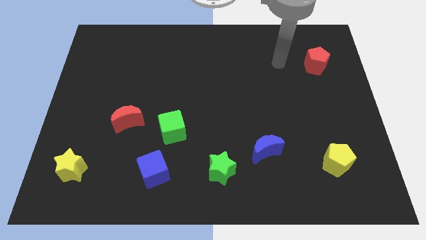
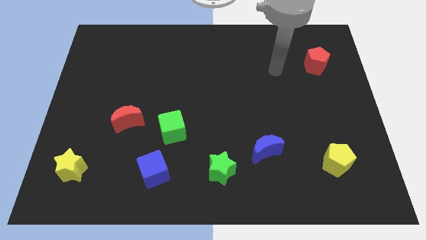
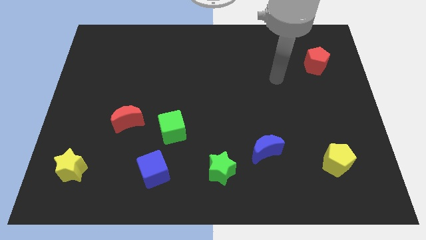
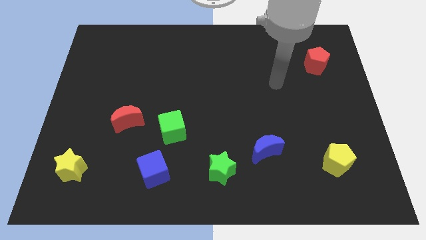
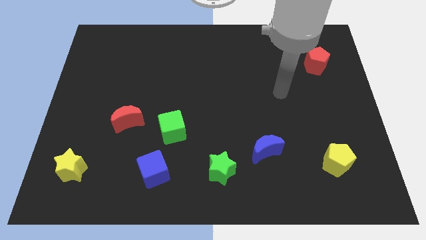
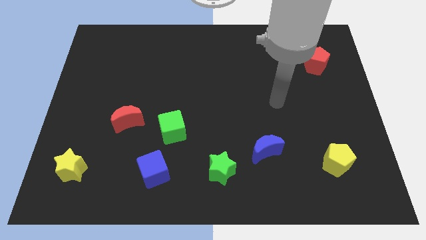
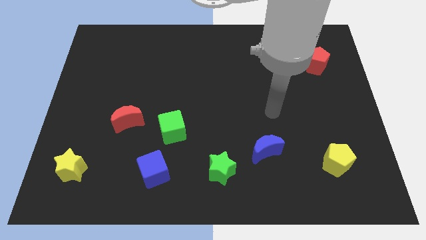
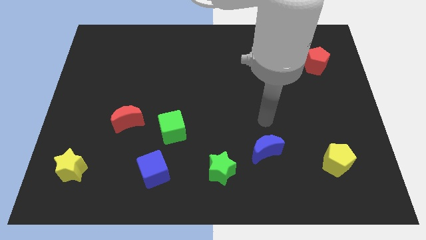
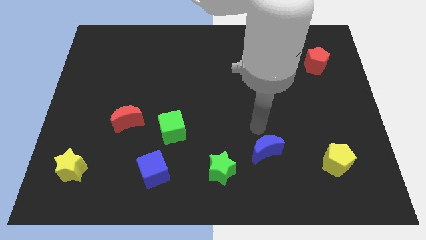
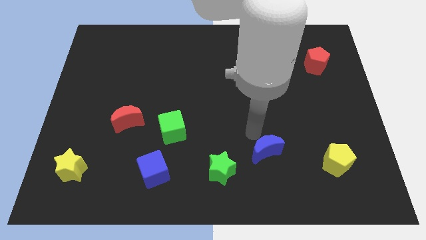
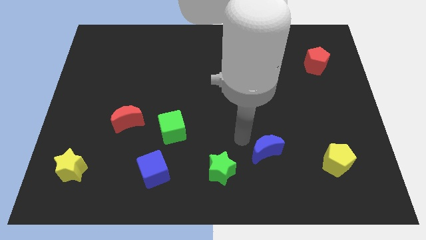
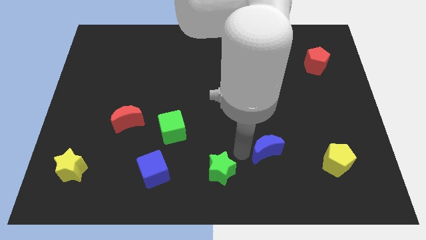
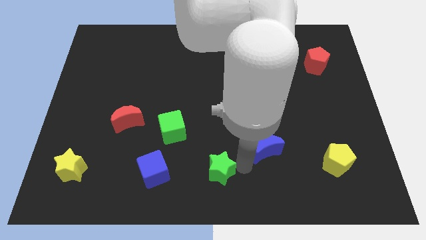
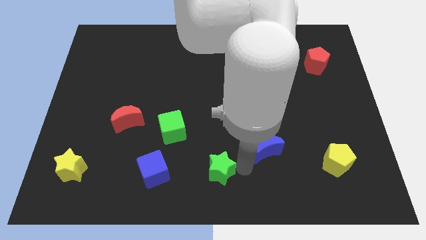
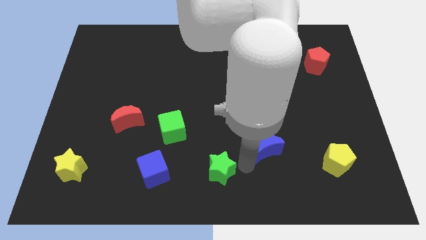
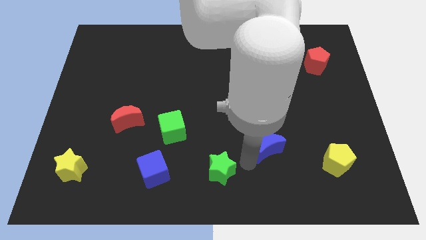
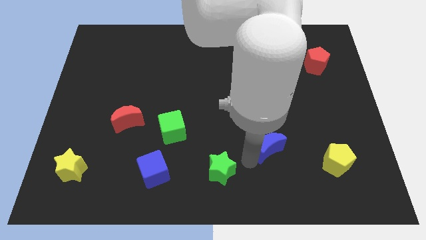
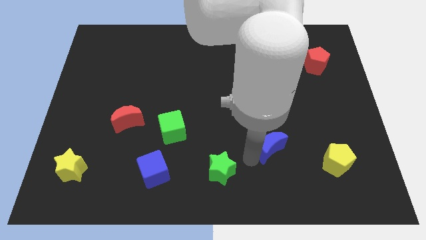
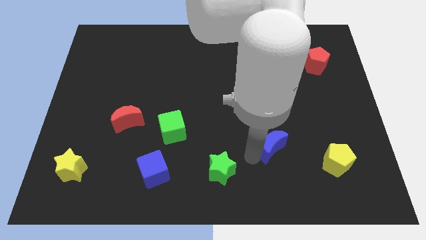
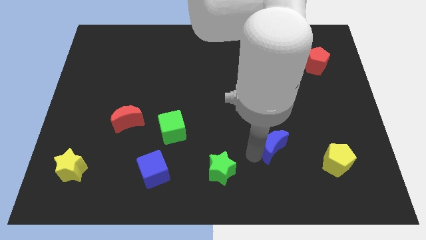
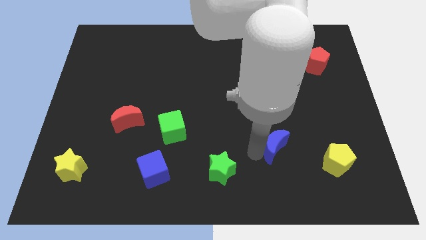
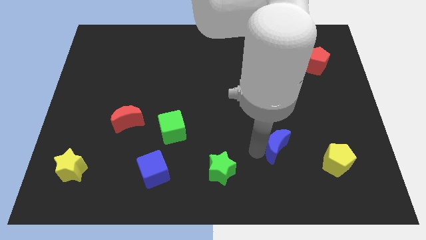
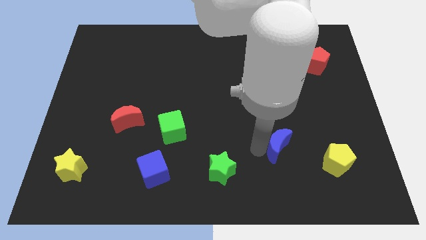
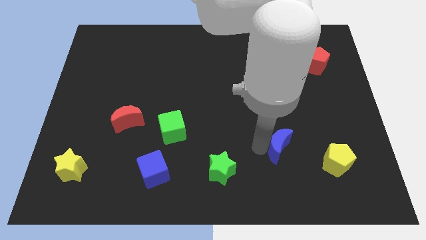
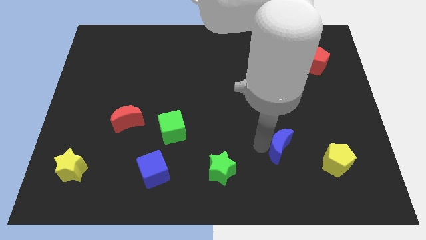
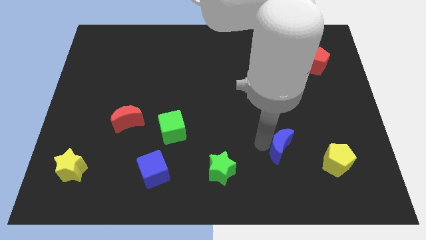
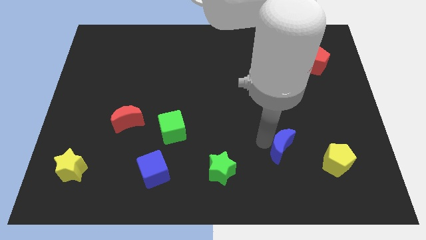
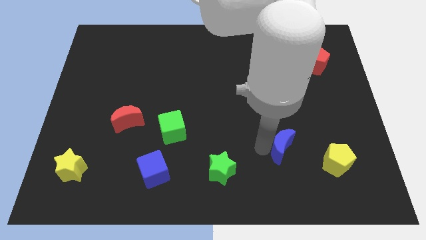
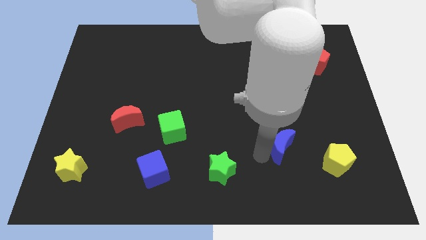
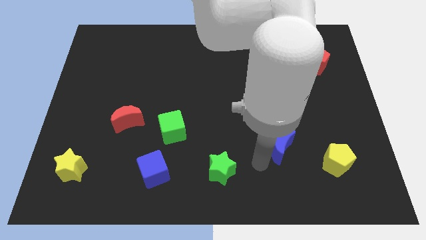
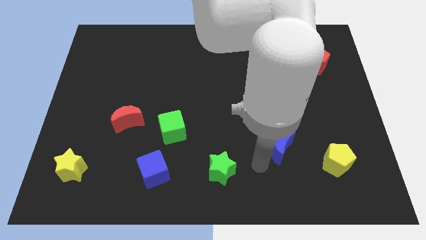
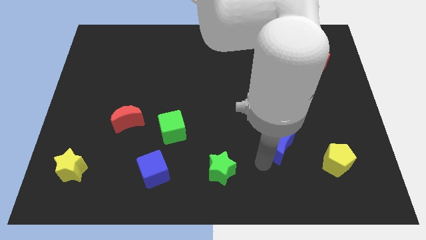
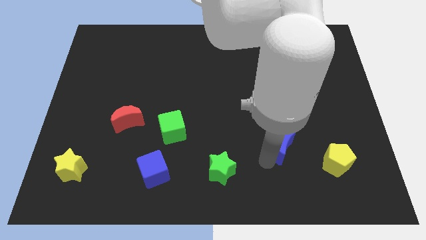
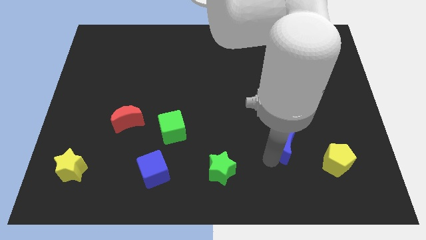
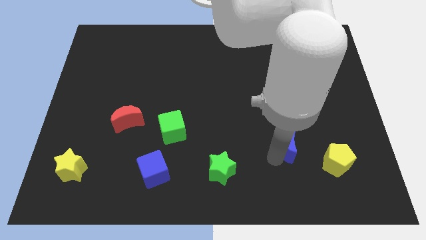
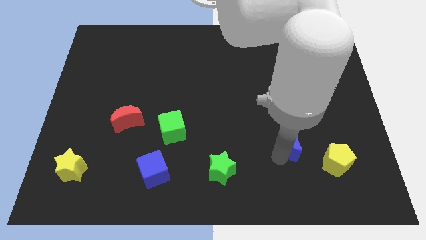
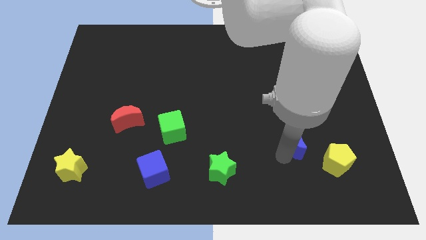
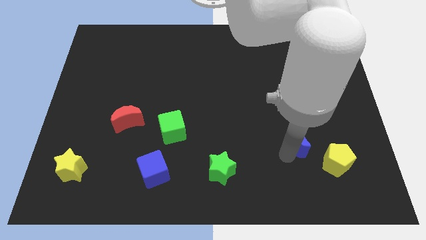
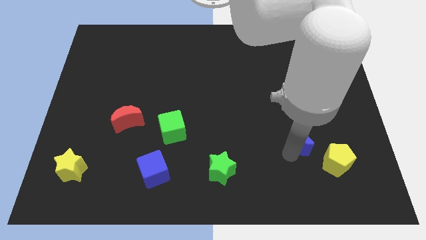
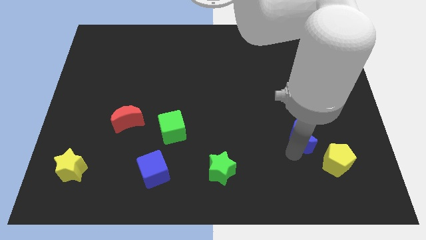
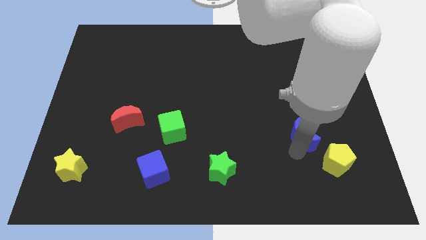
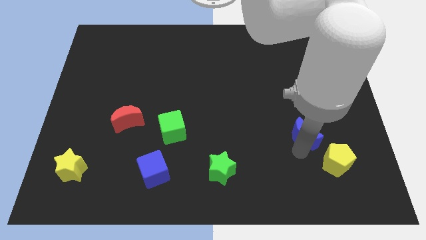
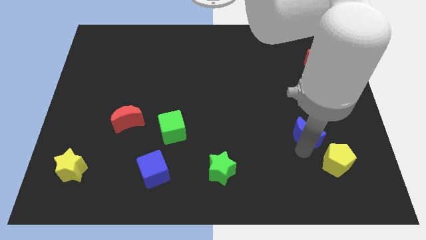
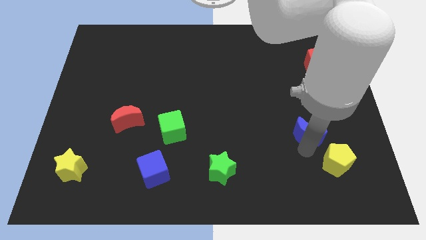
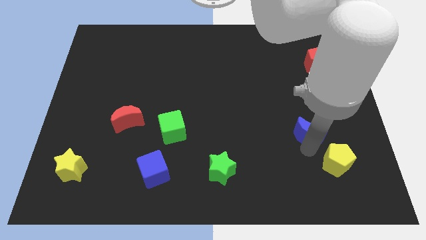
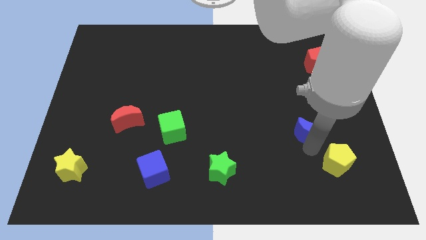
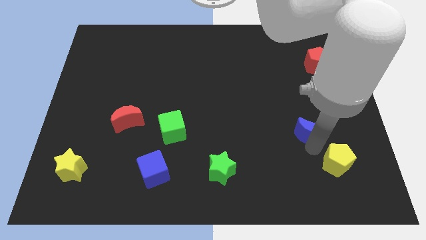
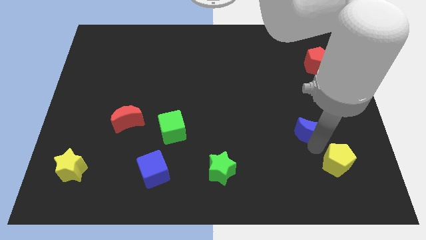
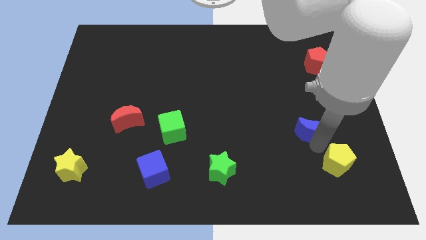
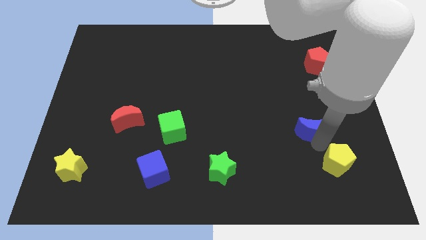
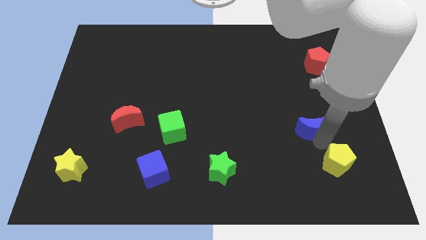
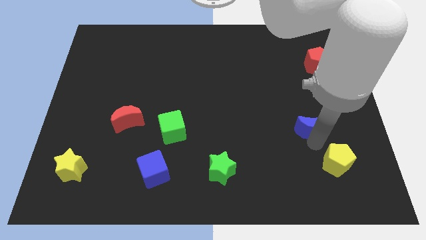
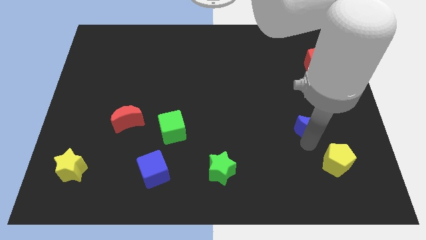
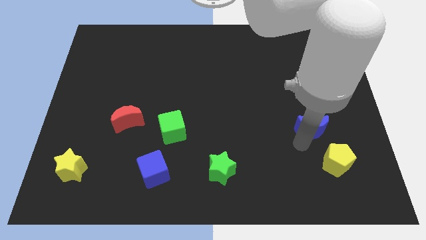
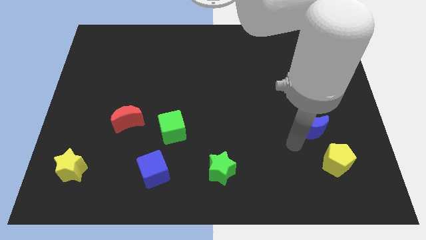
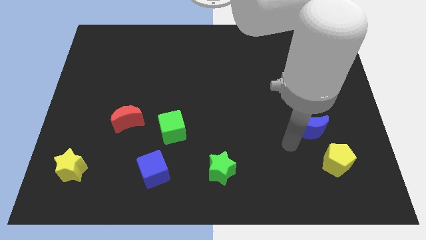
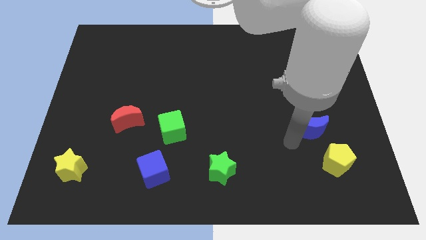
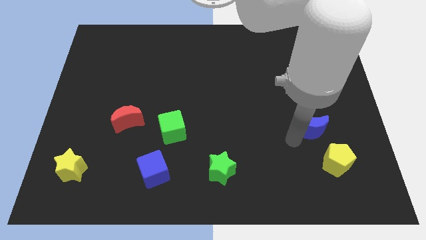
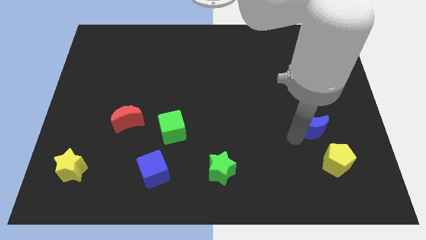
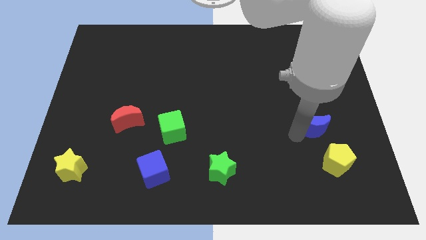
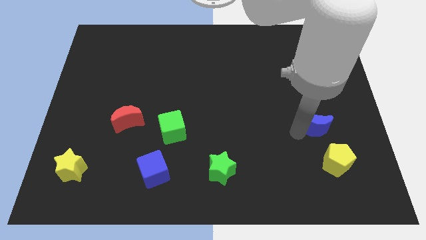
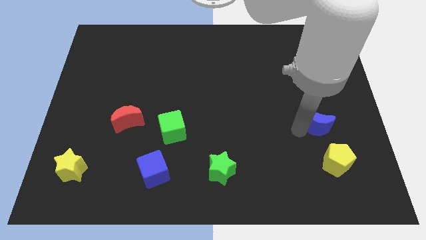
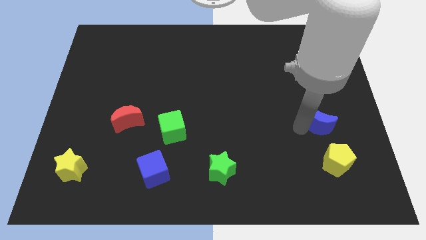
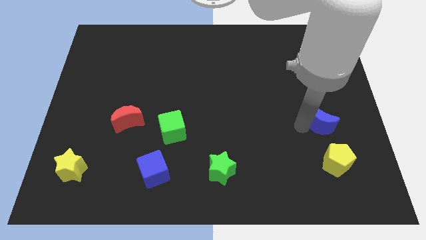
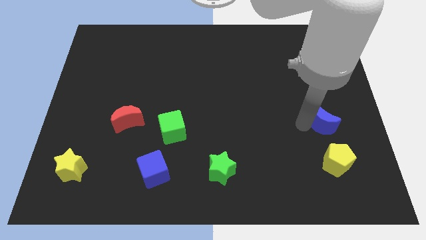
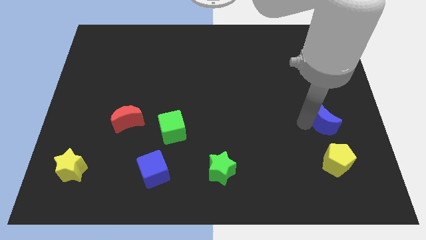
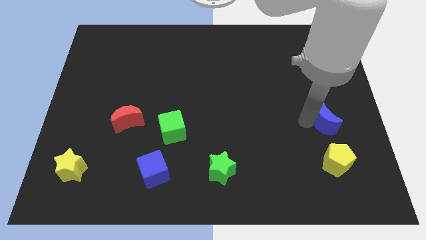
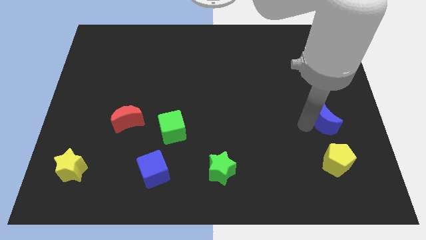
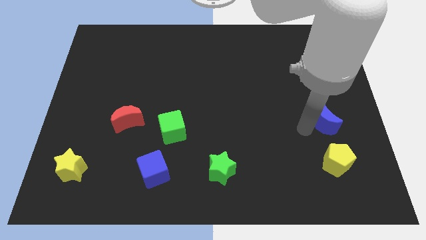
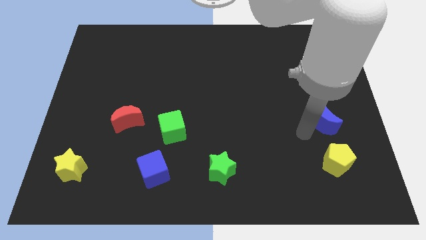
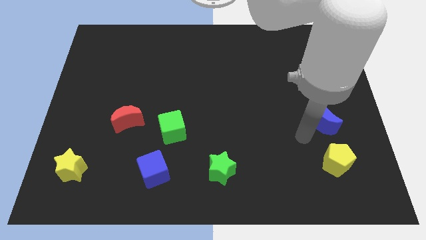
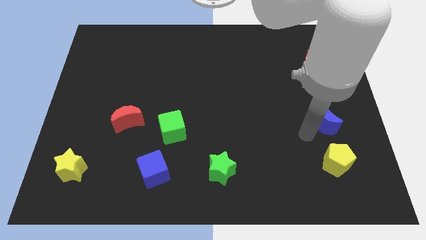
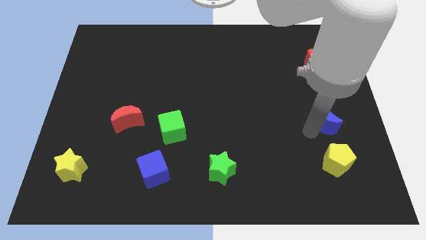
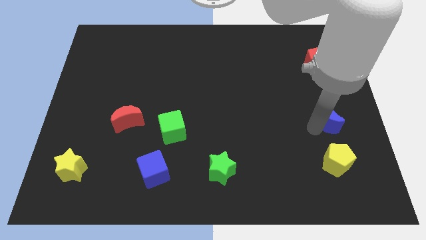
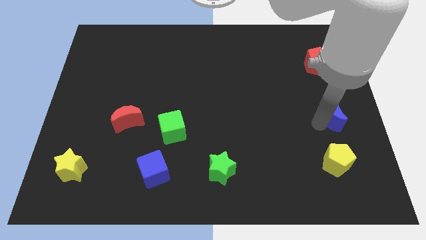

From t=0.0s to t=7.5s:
move the blue moon to the right side of the board
